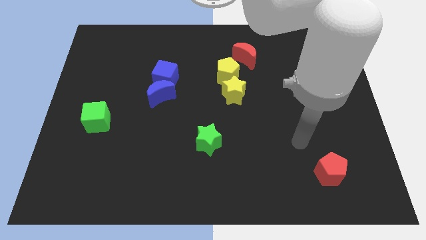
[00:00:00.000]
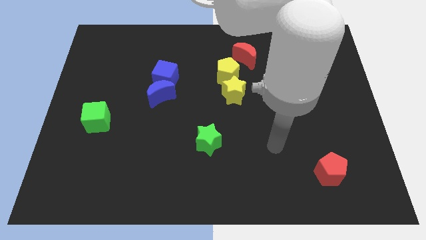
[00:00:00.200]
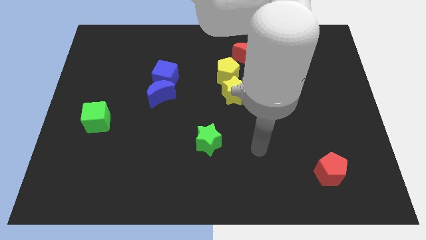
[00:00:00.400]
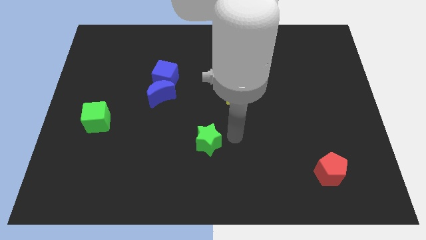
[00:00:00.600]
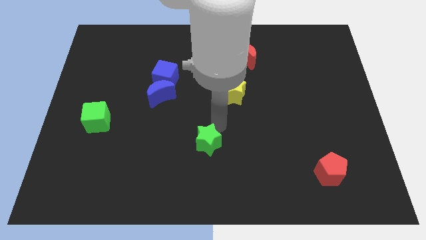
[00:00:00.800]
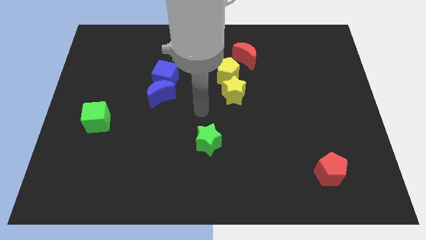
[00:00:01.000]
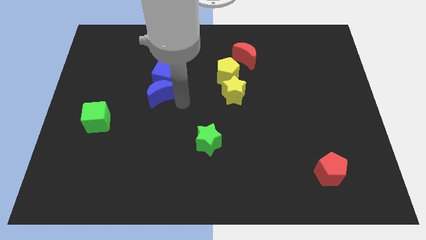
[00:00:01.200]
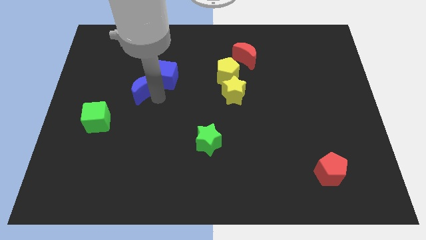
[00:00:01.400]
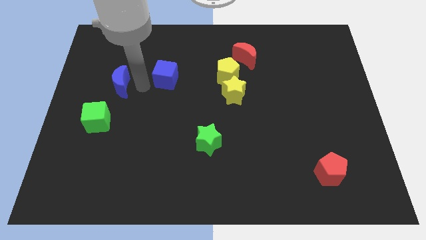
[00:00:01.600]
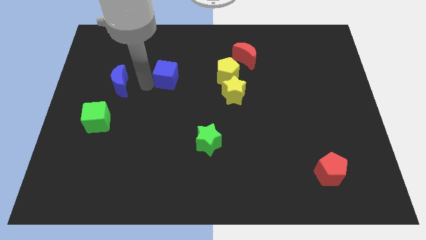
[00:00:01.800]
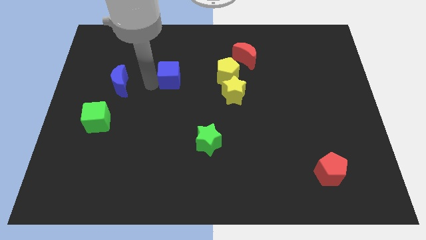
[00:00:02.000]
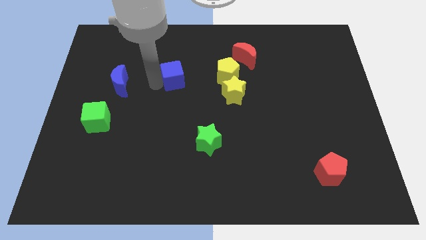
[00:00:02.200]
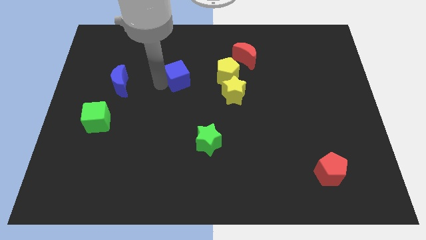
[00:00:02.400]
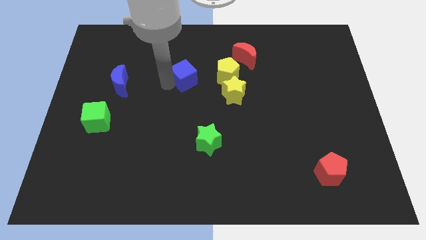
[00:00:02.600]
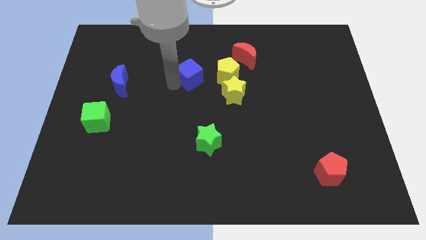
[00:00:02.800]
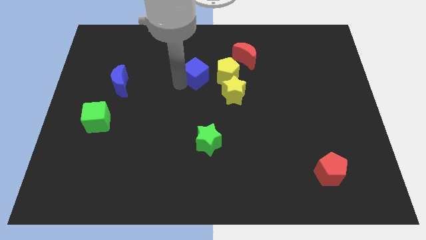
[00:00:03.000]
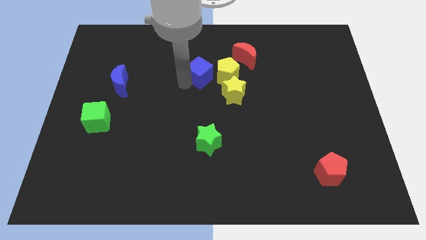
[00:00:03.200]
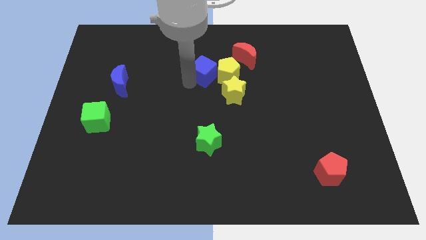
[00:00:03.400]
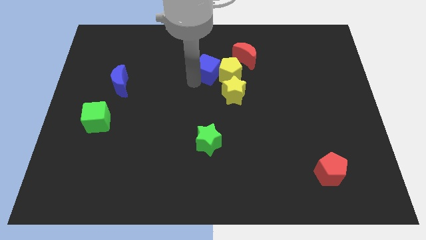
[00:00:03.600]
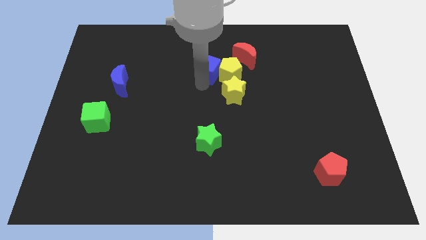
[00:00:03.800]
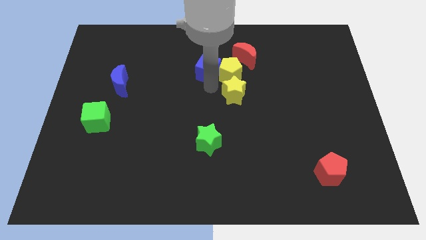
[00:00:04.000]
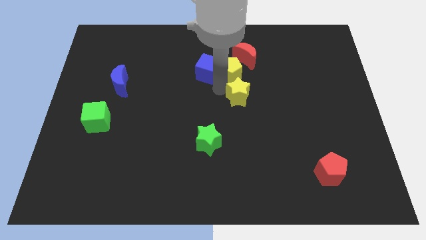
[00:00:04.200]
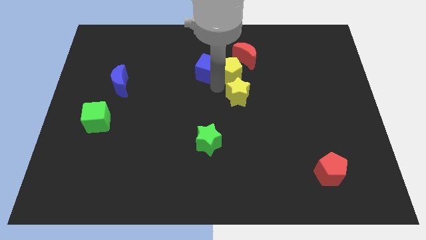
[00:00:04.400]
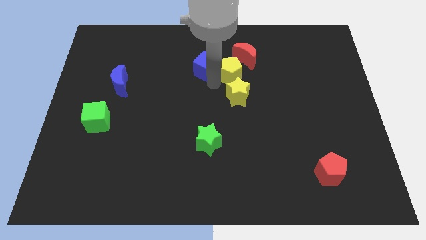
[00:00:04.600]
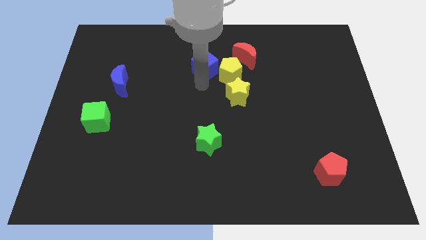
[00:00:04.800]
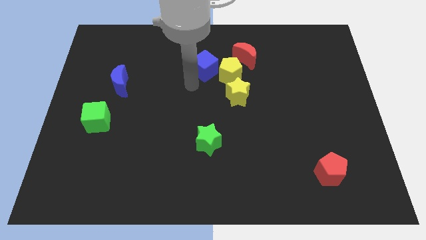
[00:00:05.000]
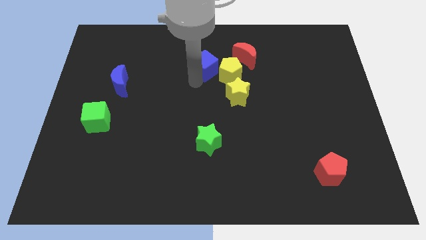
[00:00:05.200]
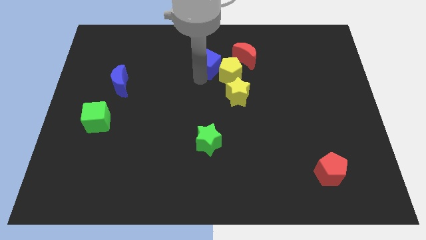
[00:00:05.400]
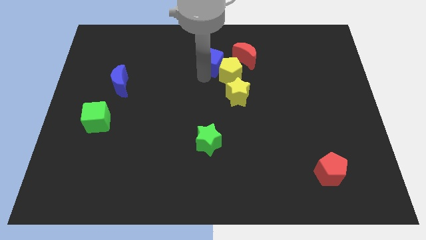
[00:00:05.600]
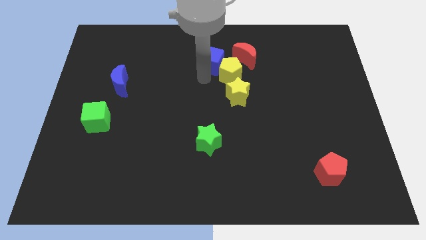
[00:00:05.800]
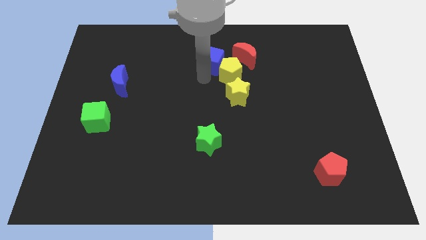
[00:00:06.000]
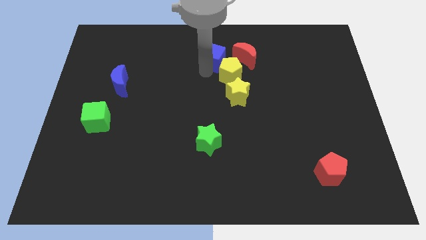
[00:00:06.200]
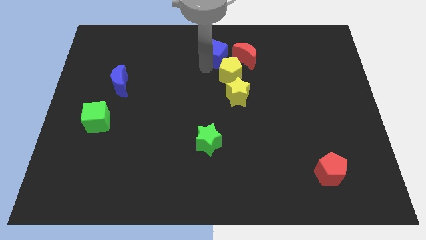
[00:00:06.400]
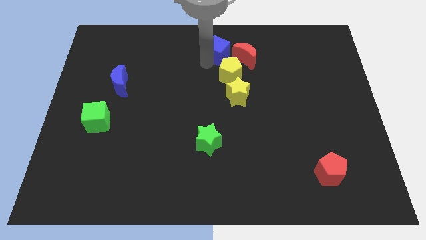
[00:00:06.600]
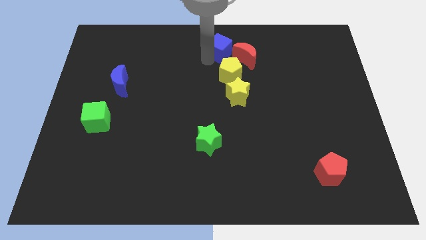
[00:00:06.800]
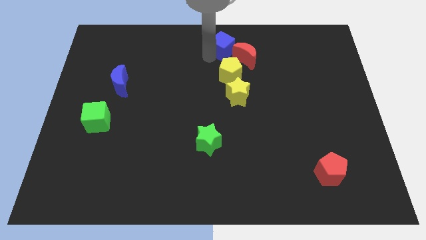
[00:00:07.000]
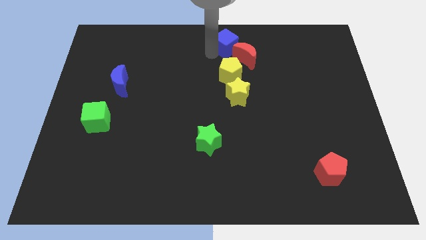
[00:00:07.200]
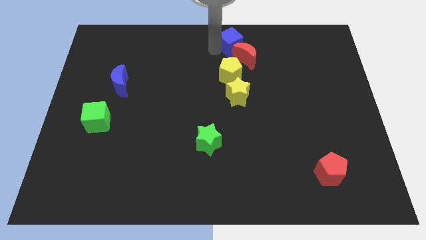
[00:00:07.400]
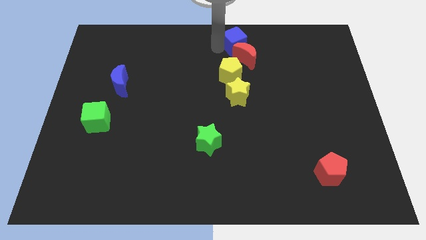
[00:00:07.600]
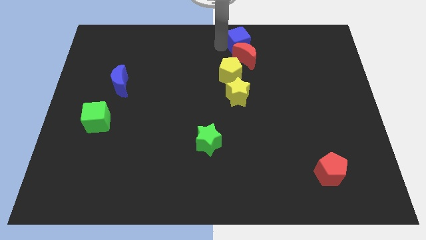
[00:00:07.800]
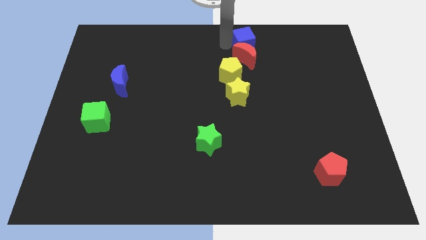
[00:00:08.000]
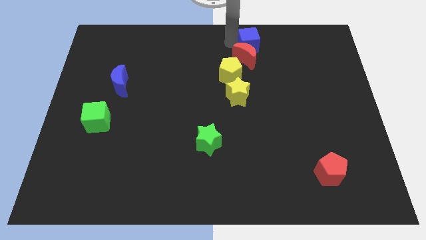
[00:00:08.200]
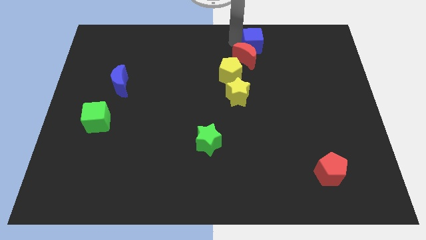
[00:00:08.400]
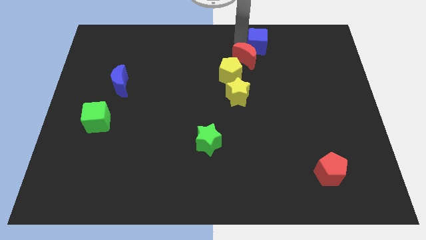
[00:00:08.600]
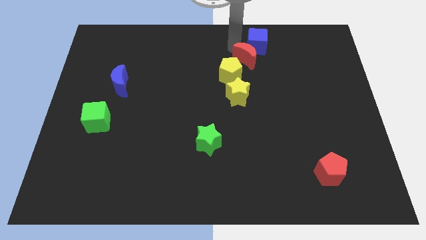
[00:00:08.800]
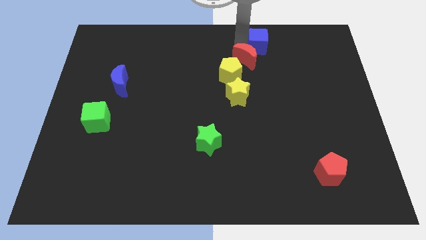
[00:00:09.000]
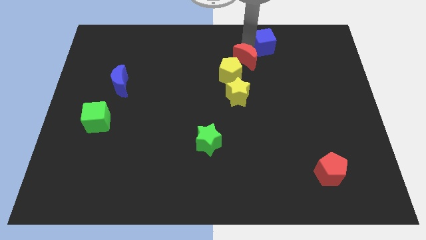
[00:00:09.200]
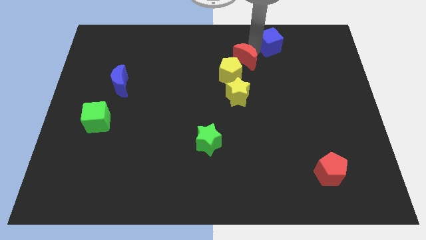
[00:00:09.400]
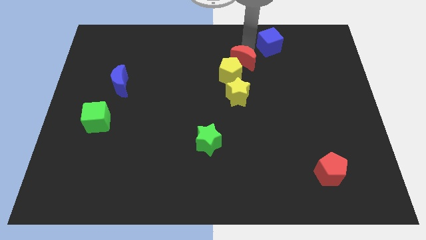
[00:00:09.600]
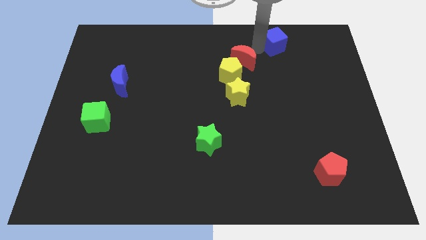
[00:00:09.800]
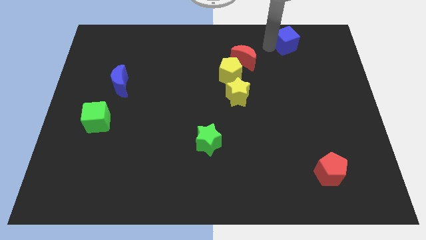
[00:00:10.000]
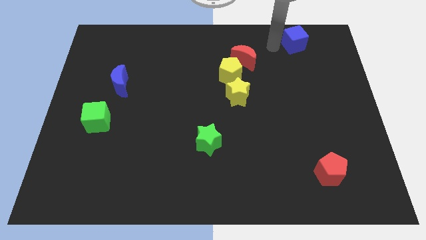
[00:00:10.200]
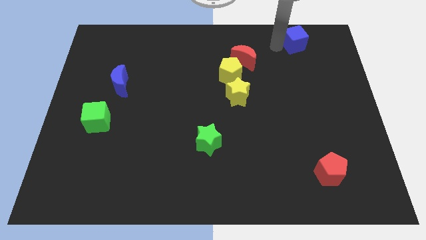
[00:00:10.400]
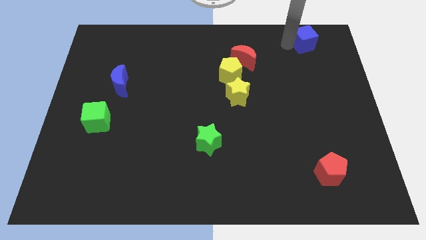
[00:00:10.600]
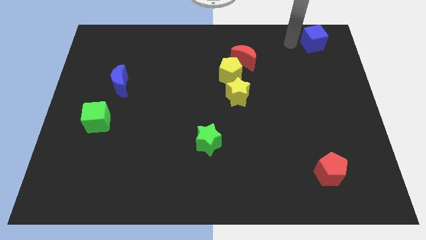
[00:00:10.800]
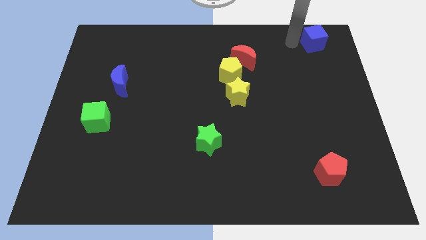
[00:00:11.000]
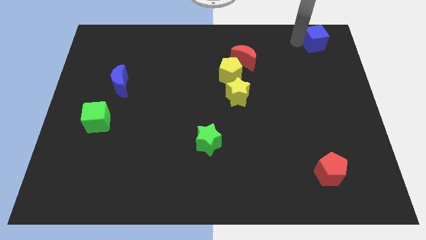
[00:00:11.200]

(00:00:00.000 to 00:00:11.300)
slide the blue cube to the top right of the board

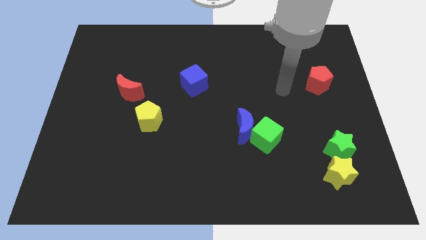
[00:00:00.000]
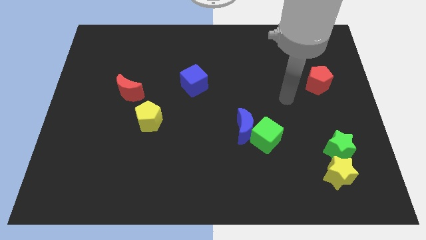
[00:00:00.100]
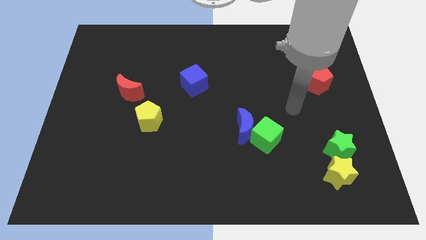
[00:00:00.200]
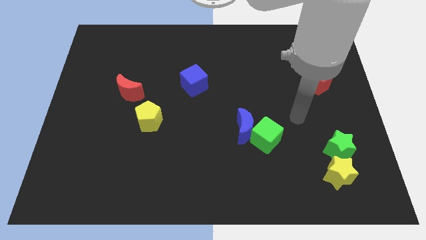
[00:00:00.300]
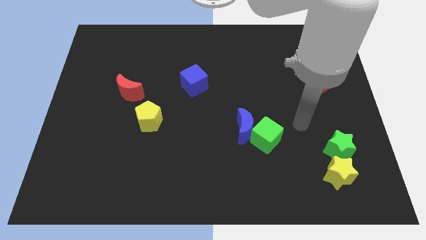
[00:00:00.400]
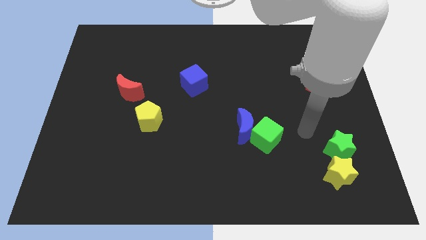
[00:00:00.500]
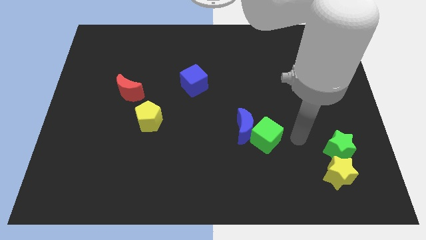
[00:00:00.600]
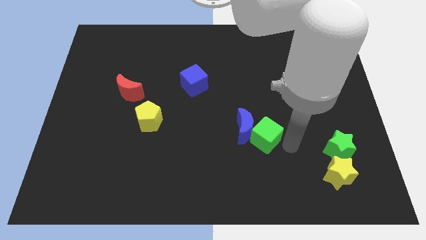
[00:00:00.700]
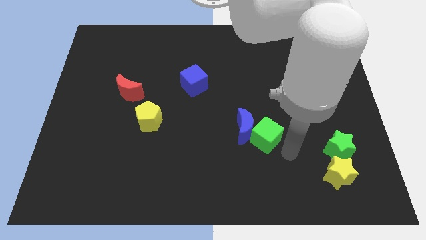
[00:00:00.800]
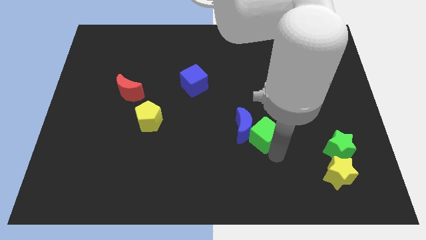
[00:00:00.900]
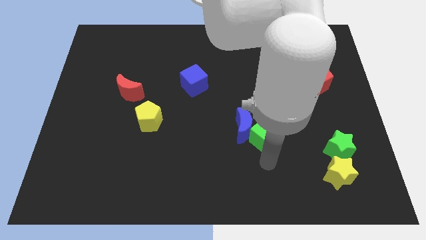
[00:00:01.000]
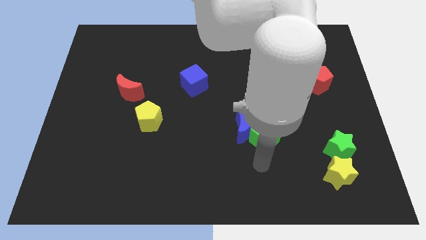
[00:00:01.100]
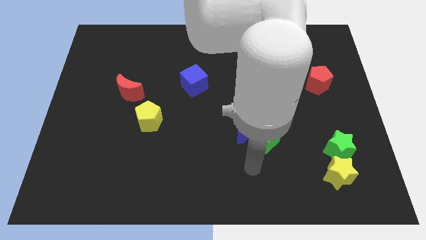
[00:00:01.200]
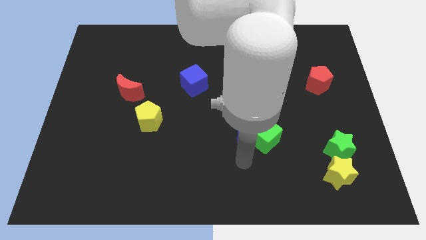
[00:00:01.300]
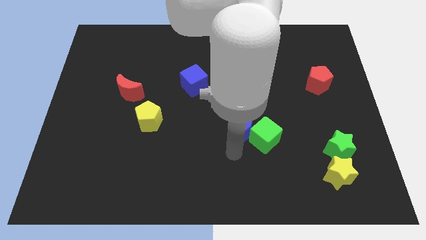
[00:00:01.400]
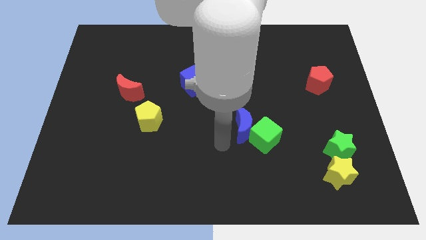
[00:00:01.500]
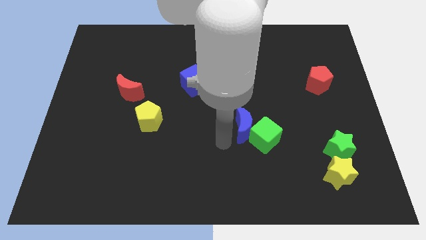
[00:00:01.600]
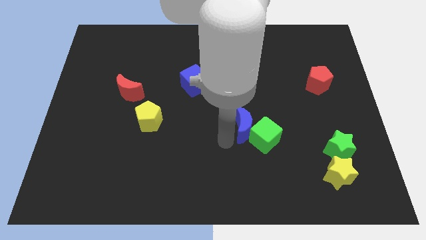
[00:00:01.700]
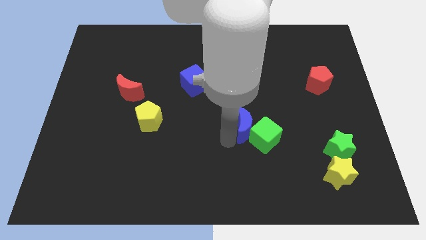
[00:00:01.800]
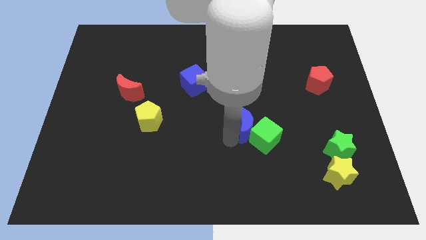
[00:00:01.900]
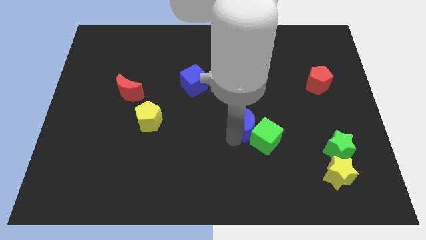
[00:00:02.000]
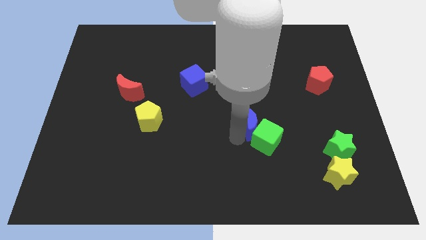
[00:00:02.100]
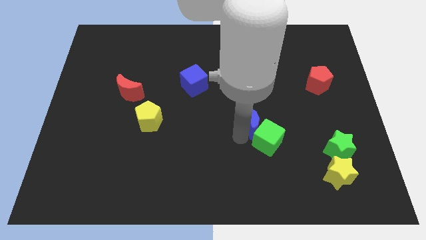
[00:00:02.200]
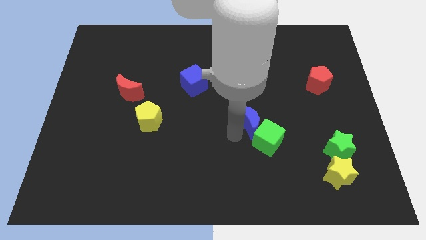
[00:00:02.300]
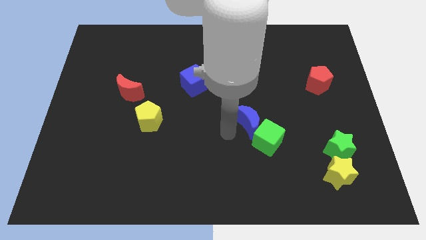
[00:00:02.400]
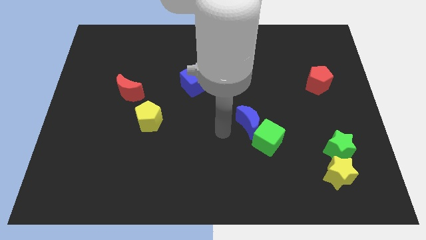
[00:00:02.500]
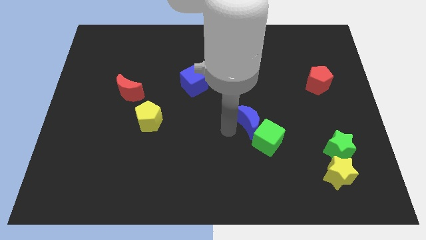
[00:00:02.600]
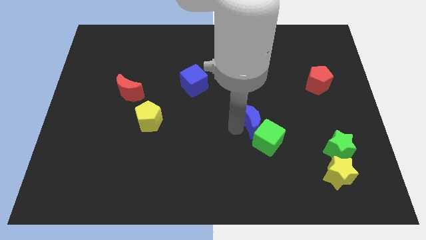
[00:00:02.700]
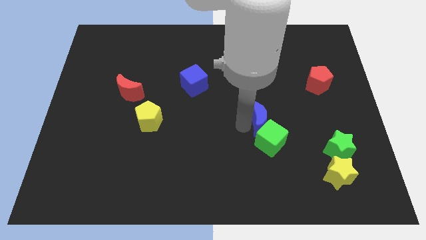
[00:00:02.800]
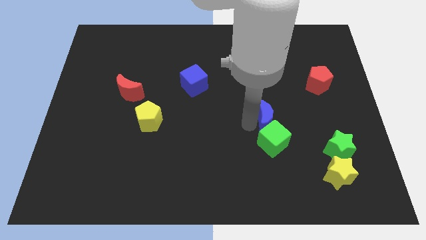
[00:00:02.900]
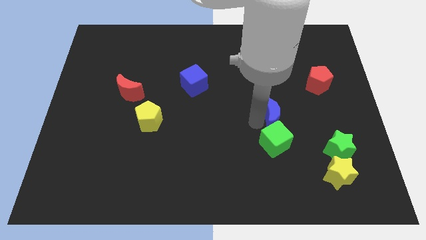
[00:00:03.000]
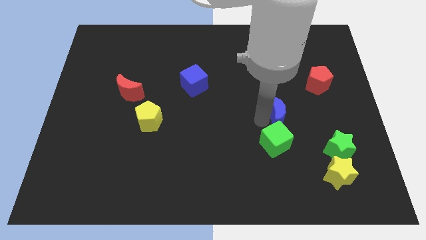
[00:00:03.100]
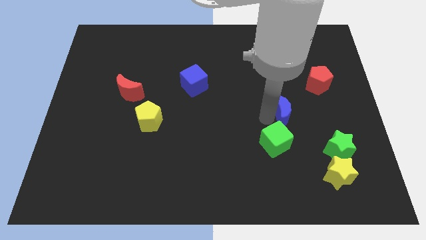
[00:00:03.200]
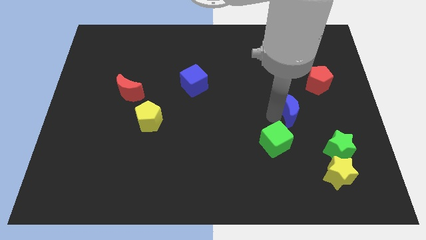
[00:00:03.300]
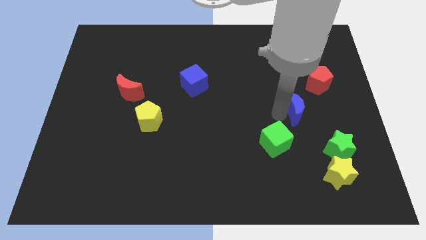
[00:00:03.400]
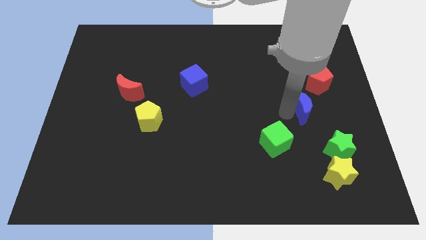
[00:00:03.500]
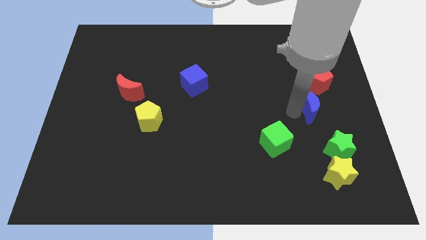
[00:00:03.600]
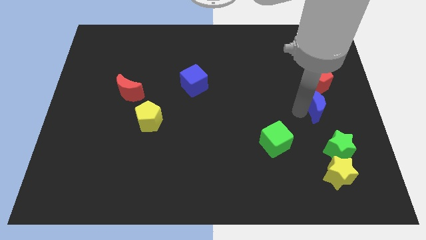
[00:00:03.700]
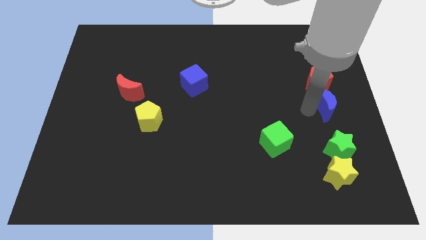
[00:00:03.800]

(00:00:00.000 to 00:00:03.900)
slide the blue moon to the right side
